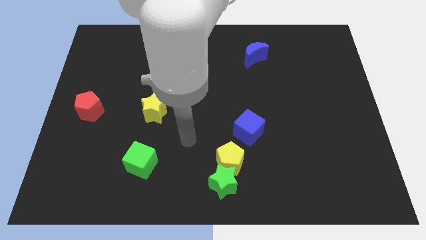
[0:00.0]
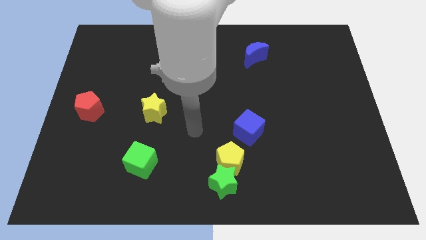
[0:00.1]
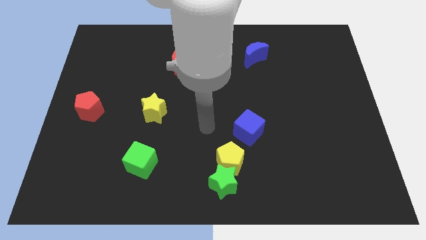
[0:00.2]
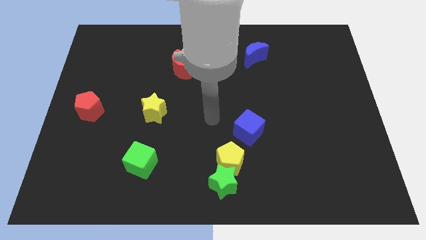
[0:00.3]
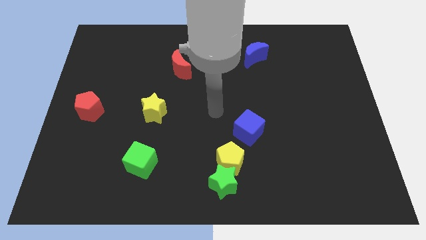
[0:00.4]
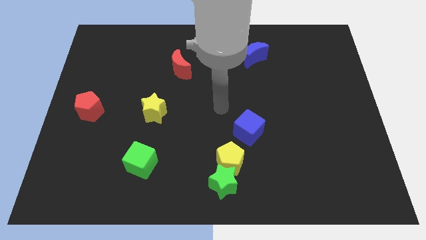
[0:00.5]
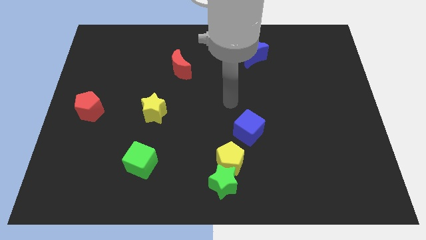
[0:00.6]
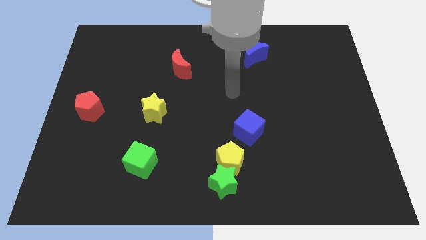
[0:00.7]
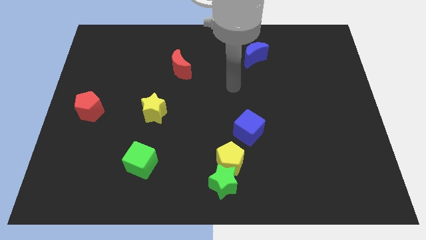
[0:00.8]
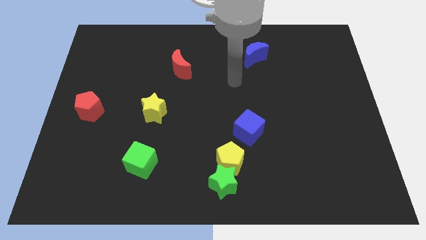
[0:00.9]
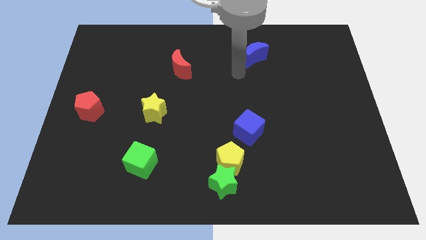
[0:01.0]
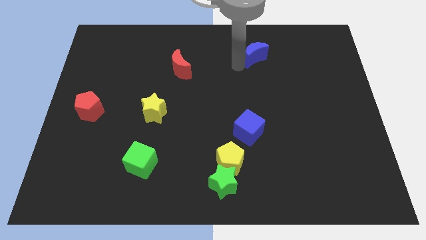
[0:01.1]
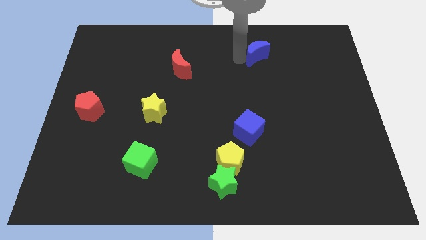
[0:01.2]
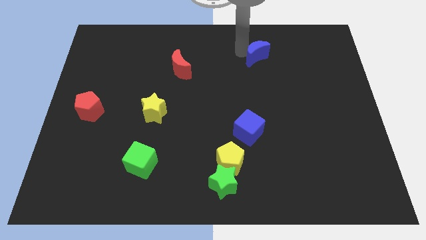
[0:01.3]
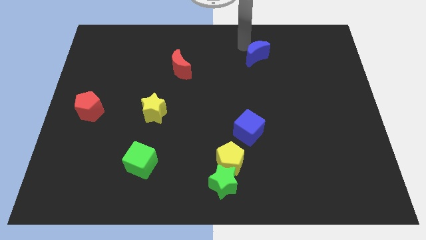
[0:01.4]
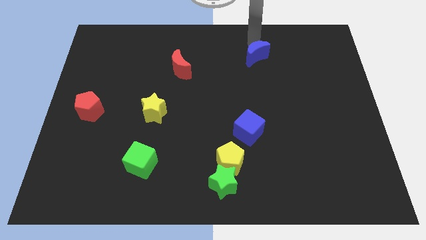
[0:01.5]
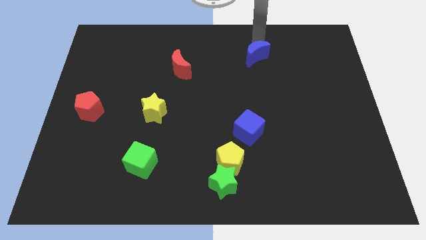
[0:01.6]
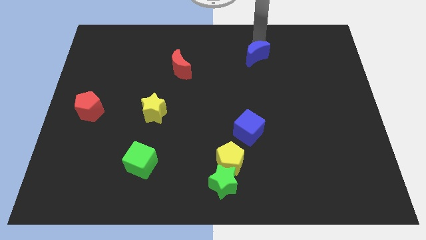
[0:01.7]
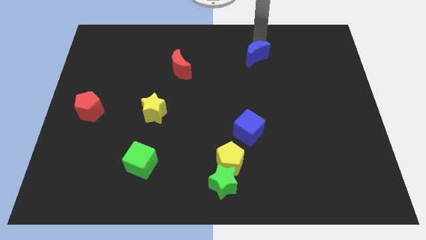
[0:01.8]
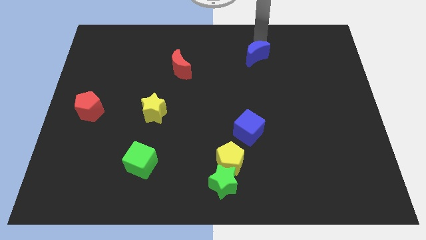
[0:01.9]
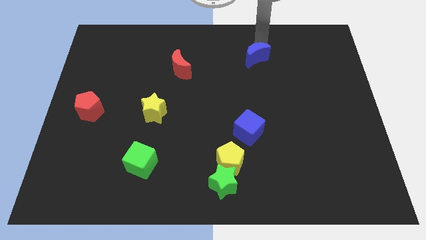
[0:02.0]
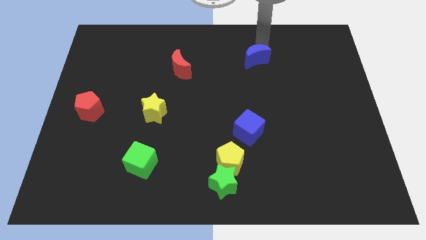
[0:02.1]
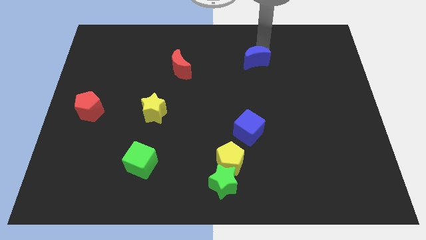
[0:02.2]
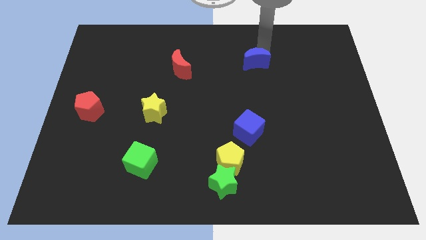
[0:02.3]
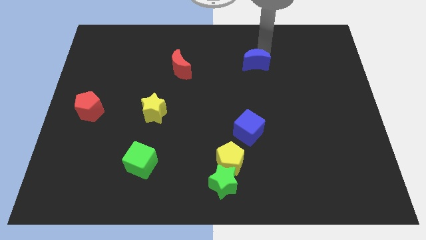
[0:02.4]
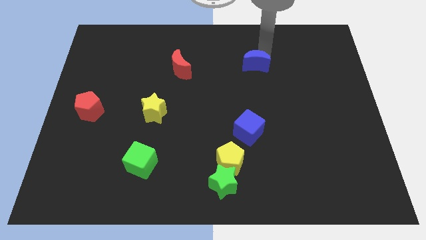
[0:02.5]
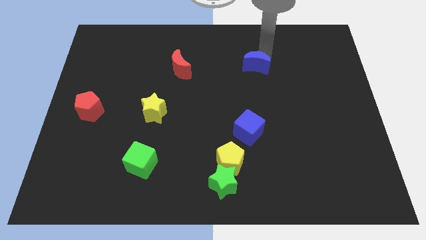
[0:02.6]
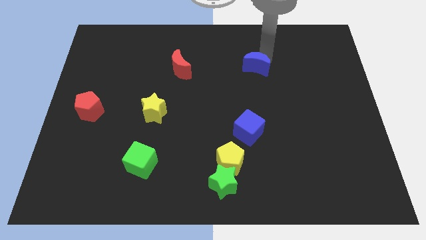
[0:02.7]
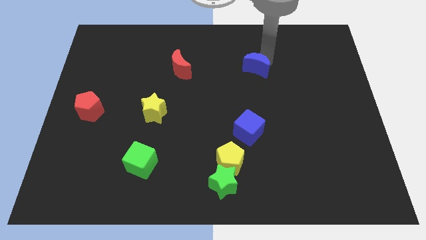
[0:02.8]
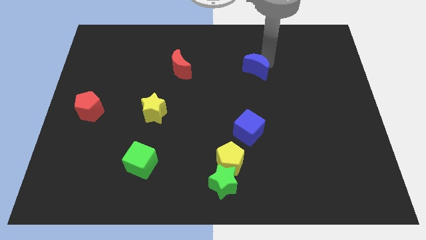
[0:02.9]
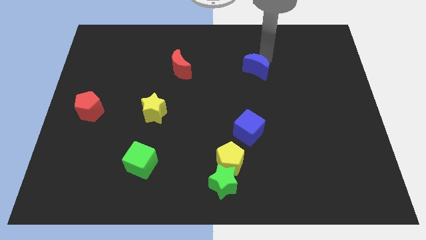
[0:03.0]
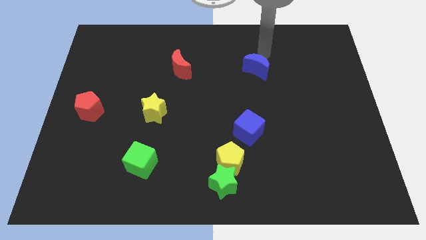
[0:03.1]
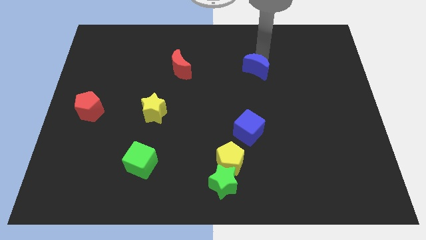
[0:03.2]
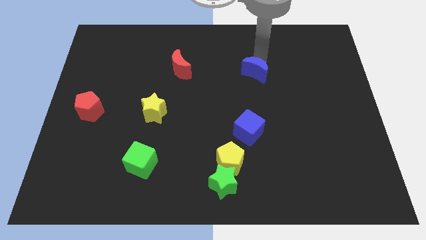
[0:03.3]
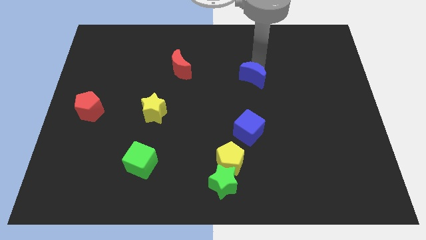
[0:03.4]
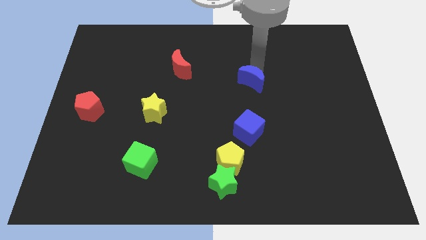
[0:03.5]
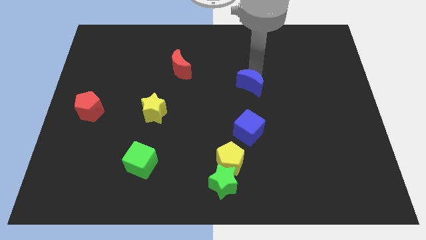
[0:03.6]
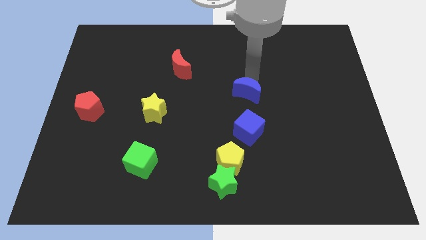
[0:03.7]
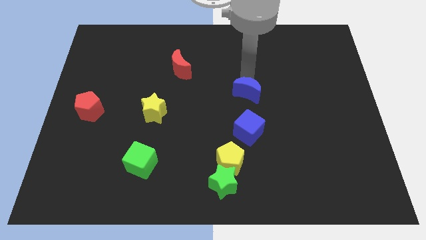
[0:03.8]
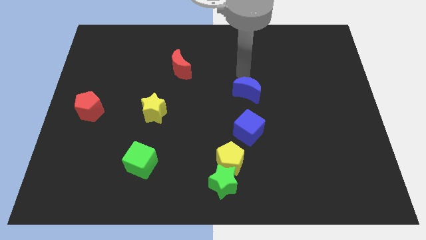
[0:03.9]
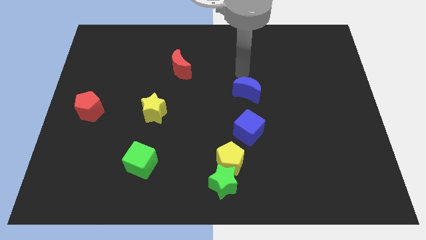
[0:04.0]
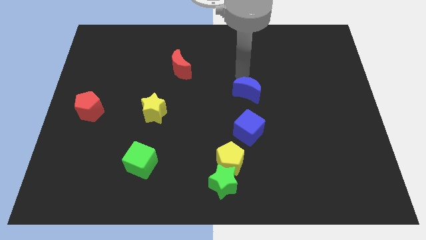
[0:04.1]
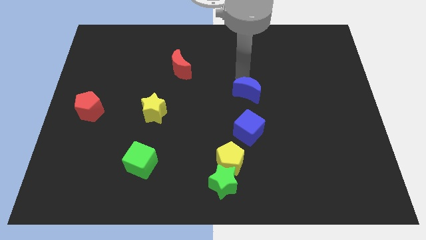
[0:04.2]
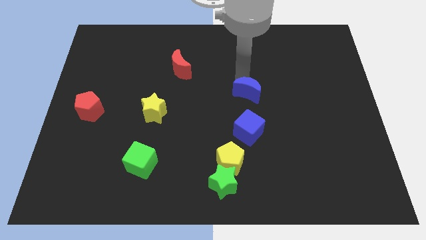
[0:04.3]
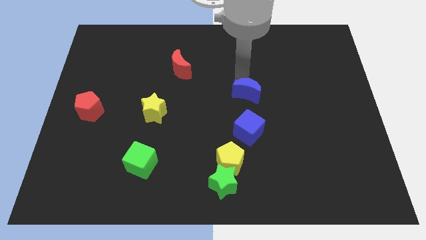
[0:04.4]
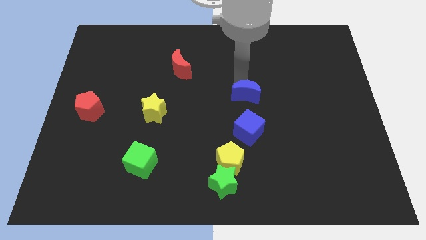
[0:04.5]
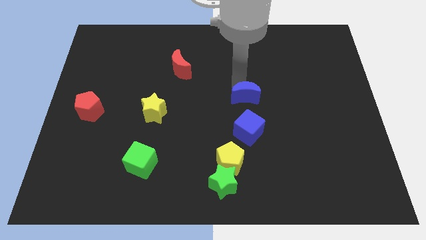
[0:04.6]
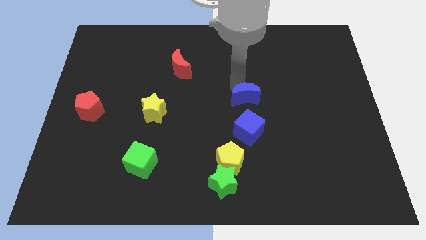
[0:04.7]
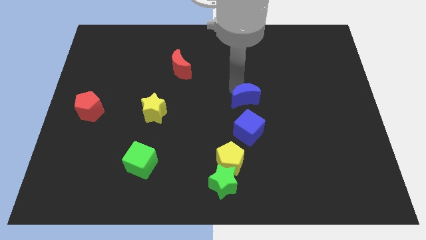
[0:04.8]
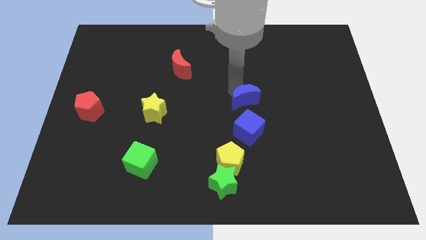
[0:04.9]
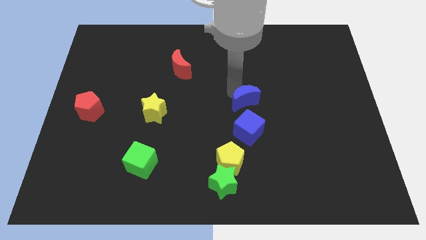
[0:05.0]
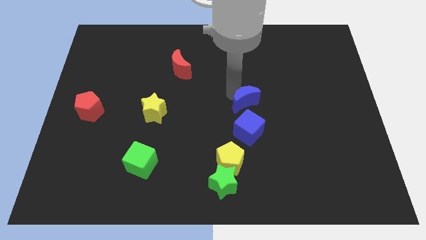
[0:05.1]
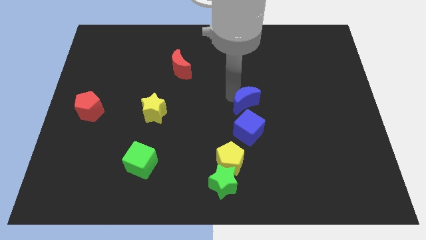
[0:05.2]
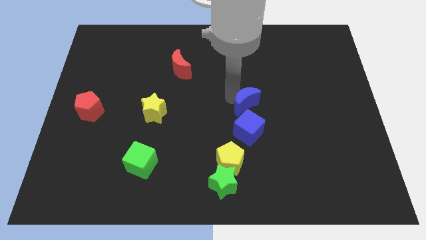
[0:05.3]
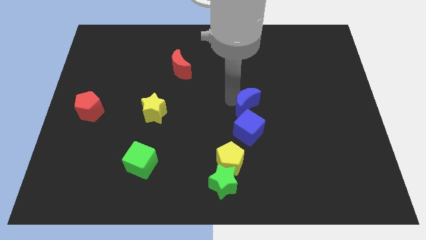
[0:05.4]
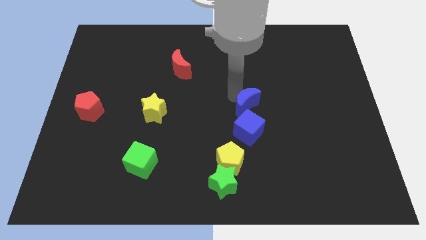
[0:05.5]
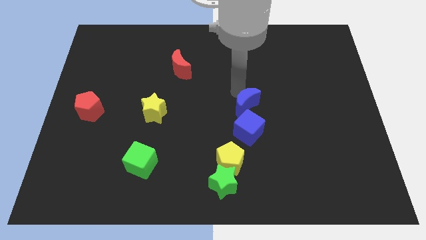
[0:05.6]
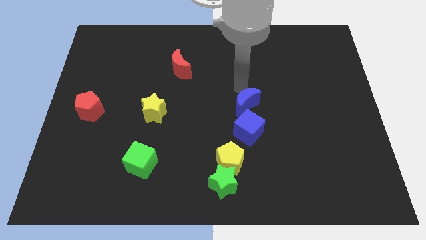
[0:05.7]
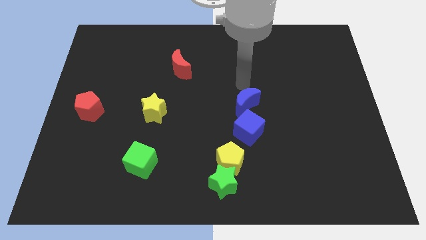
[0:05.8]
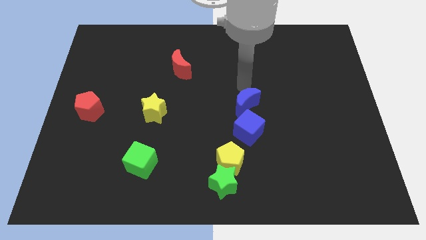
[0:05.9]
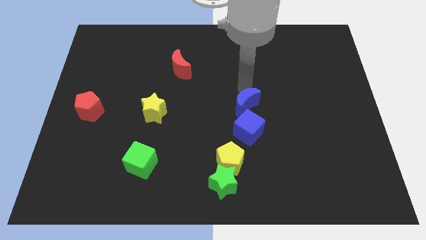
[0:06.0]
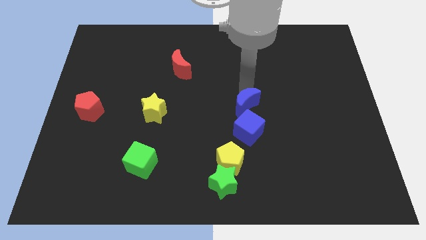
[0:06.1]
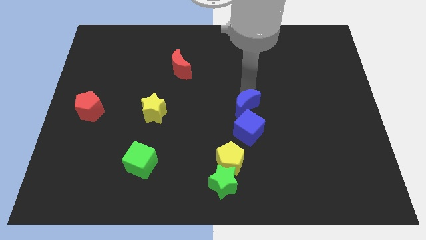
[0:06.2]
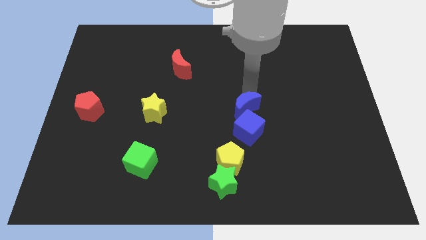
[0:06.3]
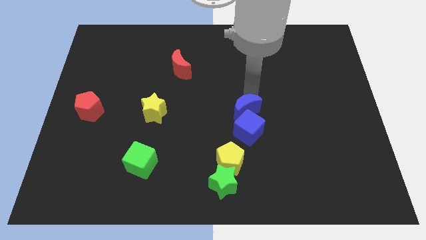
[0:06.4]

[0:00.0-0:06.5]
push the blue moon close to the blue cube
